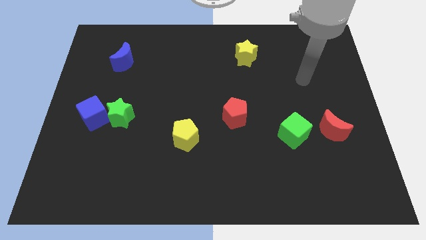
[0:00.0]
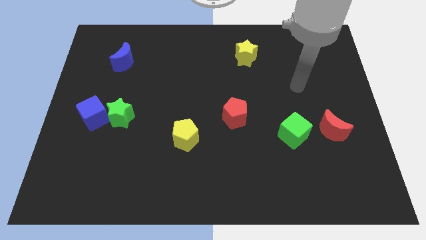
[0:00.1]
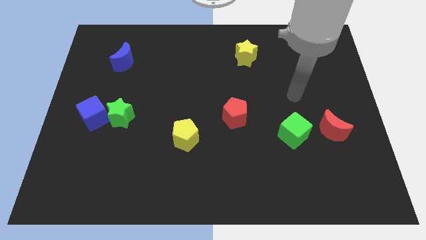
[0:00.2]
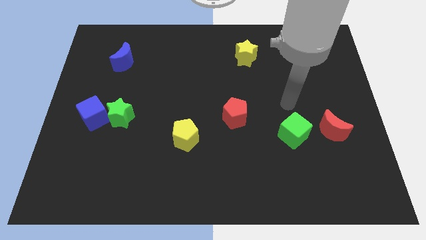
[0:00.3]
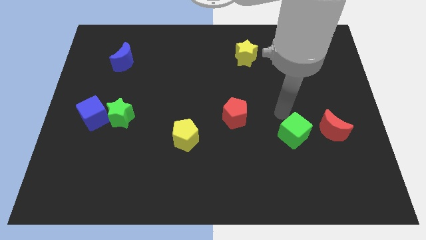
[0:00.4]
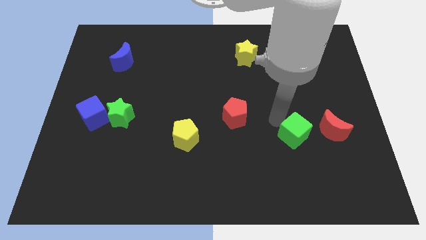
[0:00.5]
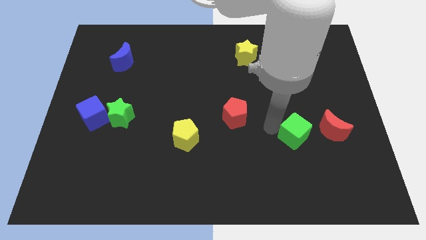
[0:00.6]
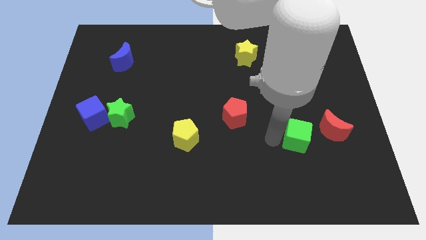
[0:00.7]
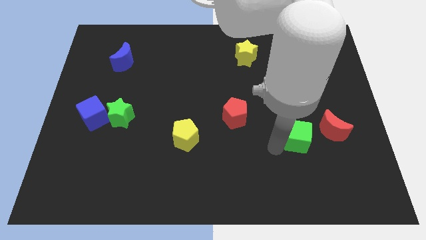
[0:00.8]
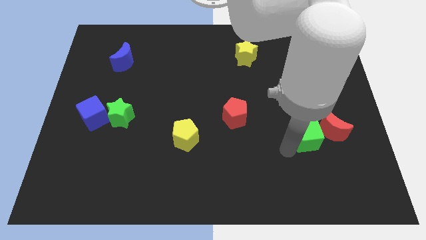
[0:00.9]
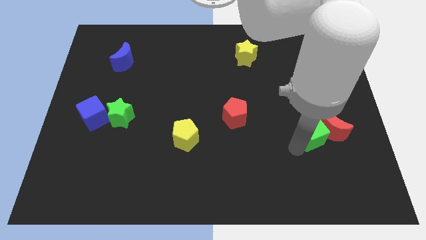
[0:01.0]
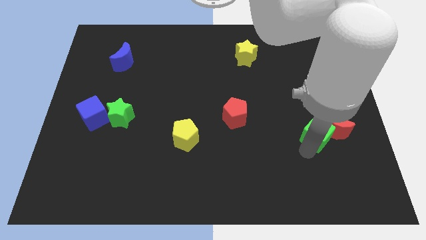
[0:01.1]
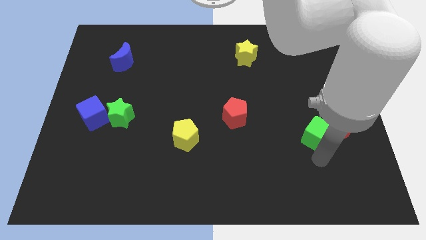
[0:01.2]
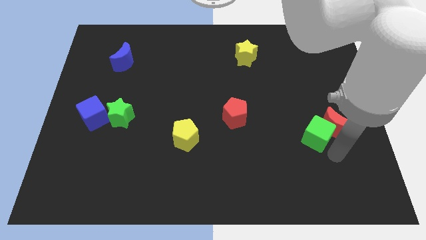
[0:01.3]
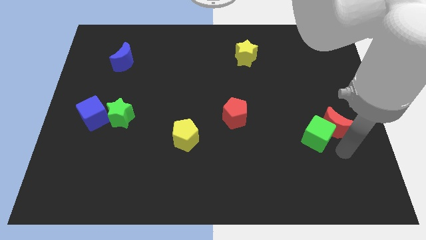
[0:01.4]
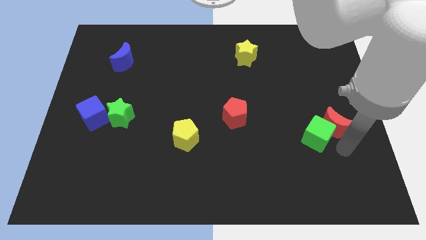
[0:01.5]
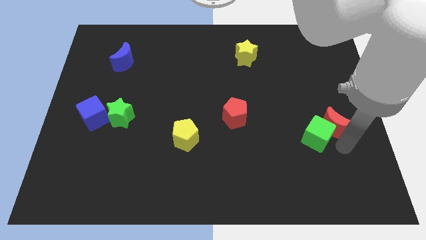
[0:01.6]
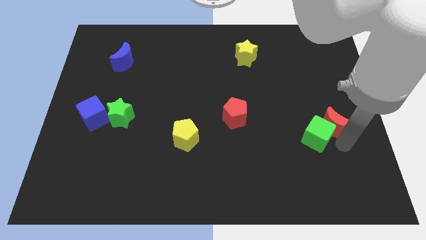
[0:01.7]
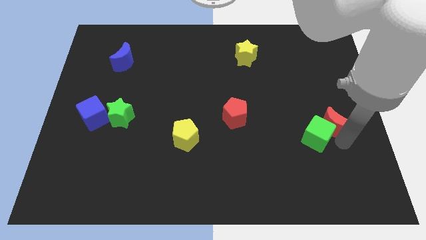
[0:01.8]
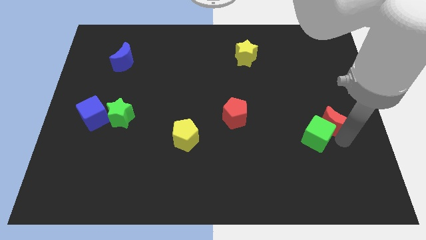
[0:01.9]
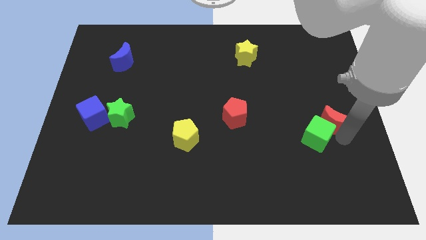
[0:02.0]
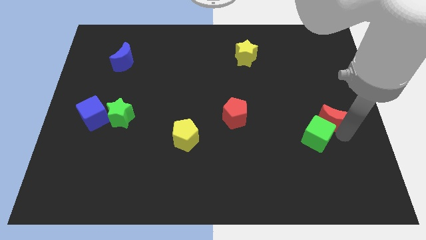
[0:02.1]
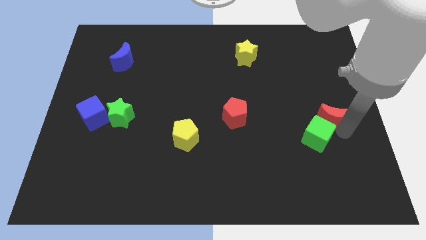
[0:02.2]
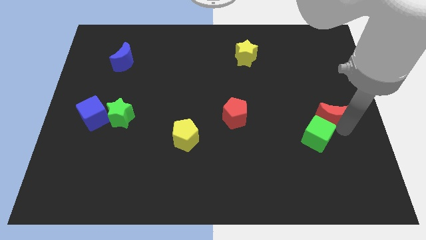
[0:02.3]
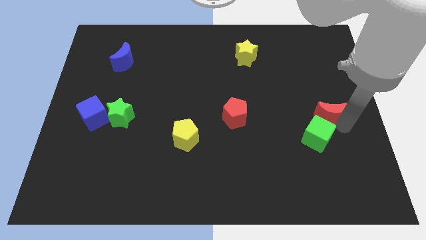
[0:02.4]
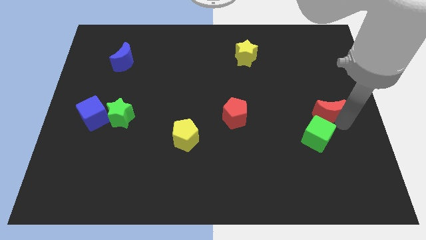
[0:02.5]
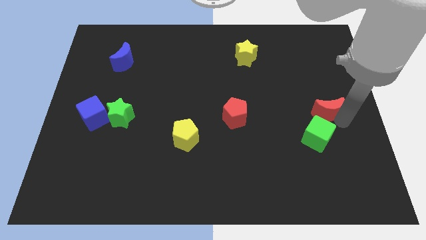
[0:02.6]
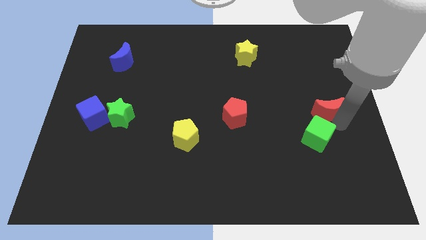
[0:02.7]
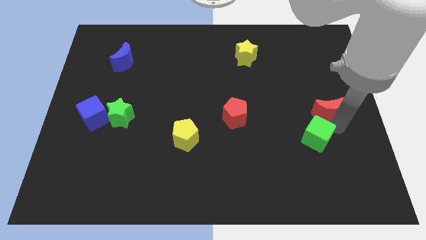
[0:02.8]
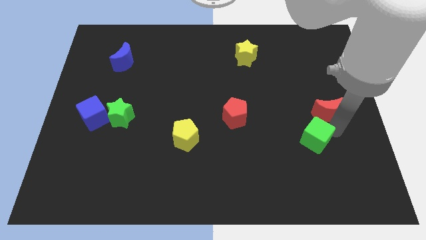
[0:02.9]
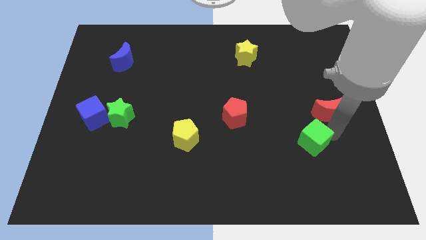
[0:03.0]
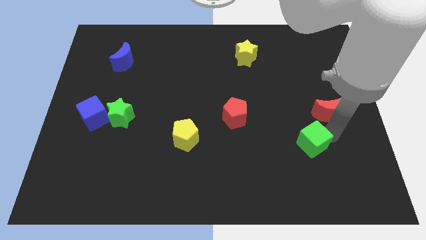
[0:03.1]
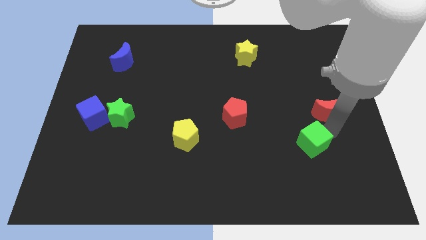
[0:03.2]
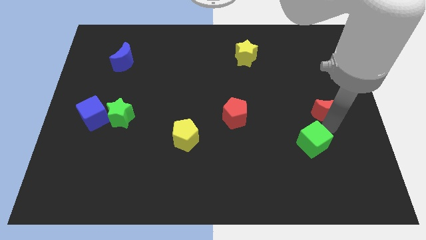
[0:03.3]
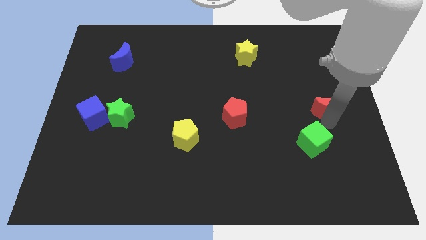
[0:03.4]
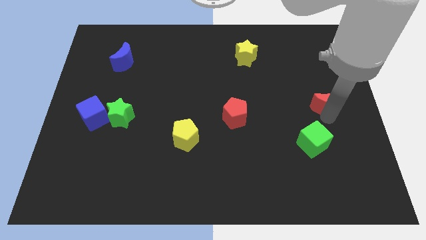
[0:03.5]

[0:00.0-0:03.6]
slightly slide the red moon upwards

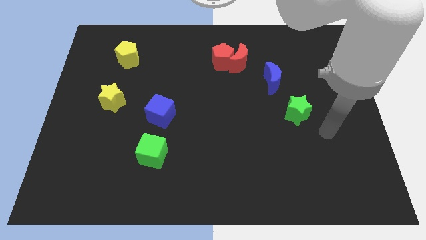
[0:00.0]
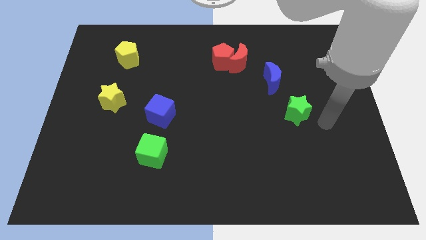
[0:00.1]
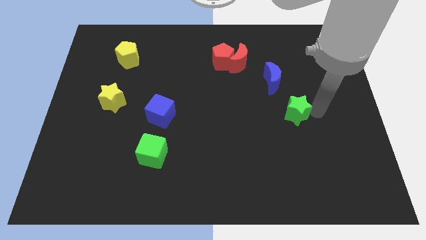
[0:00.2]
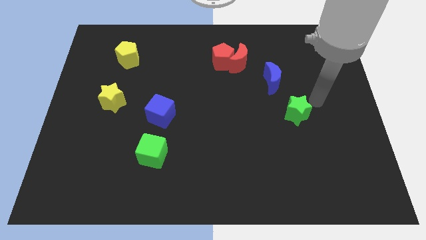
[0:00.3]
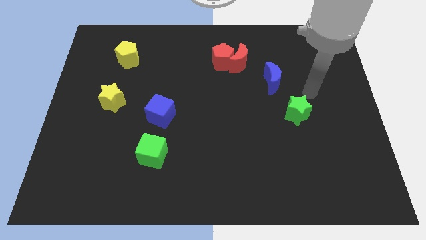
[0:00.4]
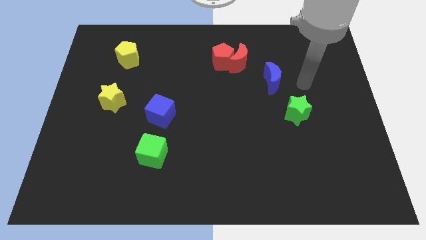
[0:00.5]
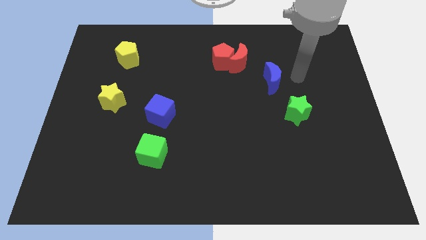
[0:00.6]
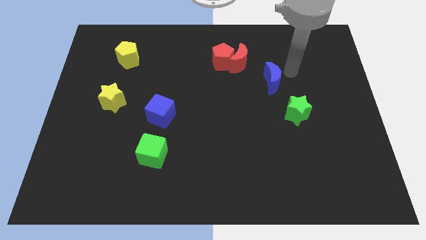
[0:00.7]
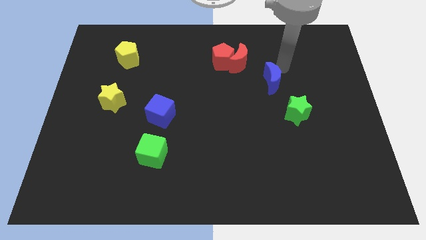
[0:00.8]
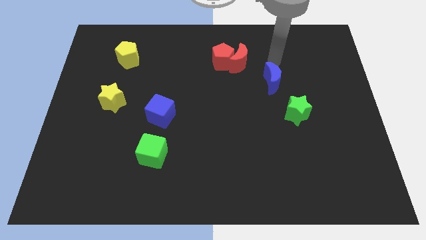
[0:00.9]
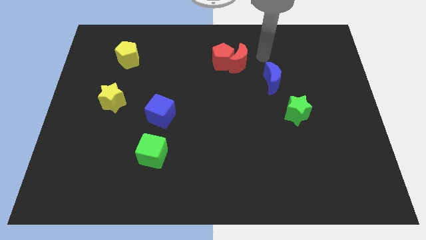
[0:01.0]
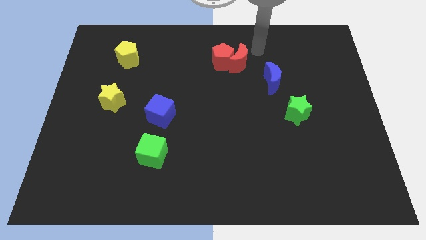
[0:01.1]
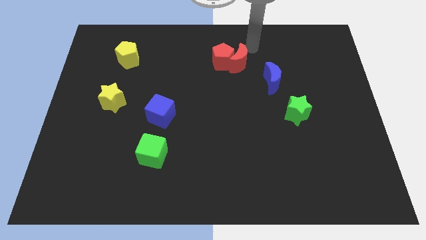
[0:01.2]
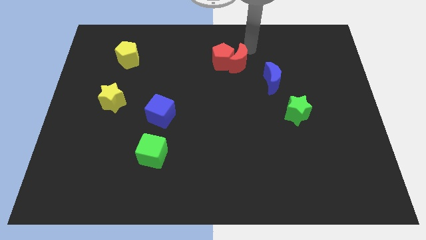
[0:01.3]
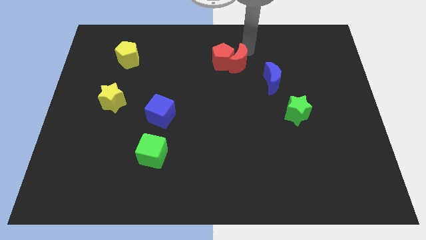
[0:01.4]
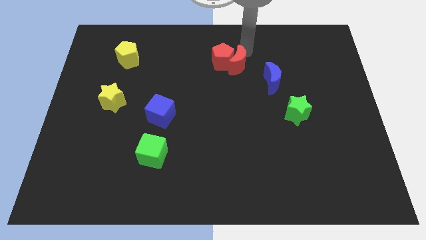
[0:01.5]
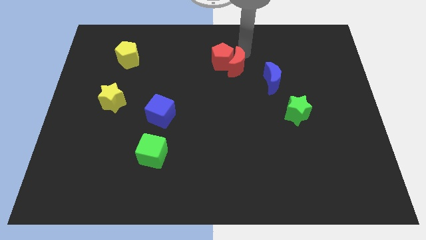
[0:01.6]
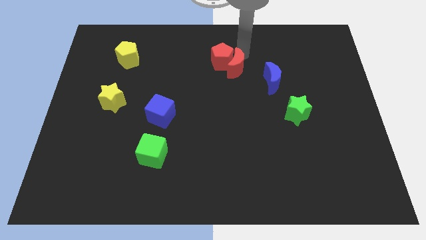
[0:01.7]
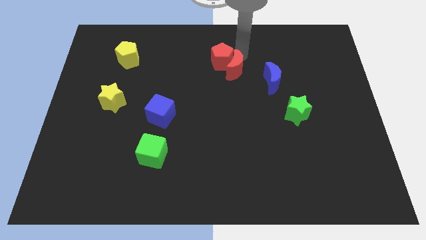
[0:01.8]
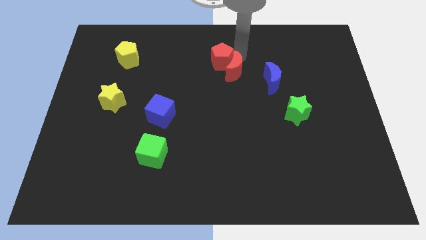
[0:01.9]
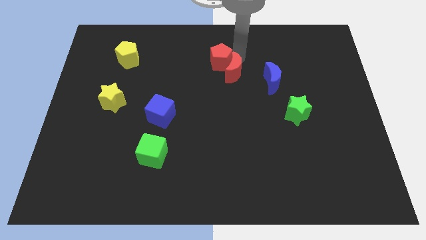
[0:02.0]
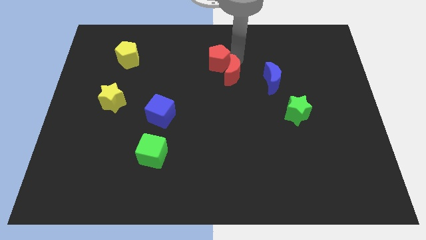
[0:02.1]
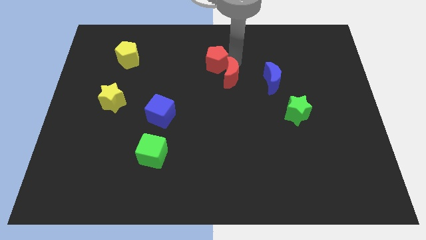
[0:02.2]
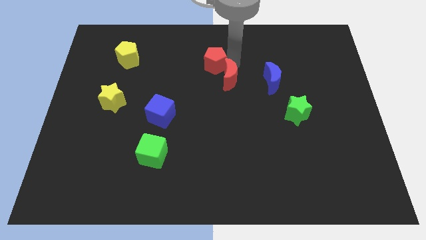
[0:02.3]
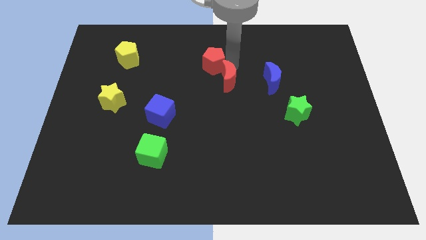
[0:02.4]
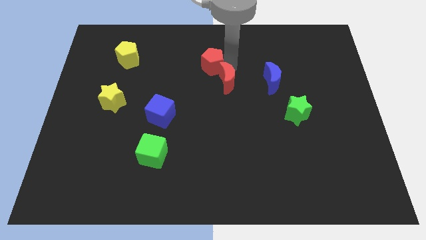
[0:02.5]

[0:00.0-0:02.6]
slightly move the red moon diagonally down and to the left

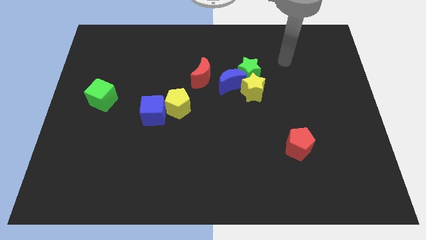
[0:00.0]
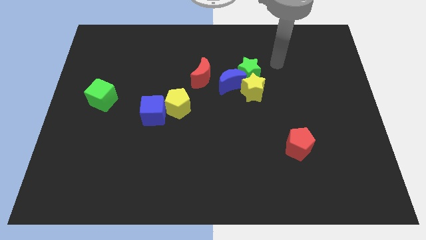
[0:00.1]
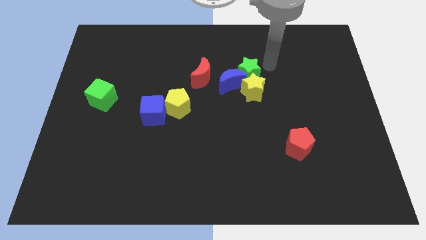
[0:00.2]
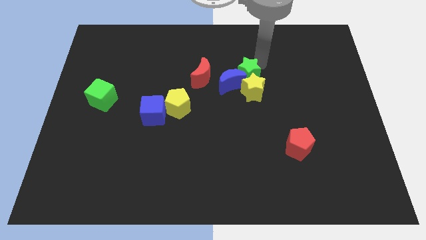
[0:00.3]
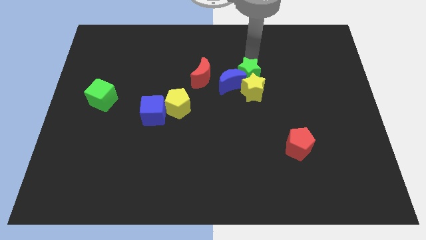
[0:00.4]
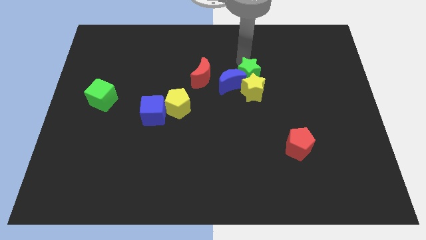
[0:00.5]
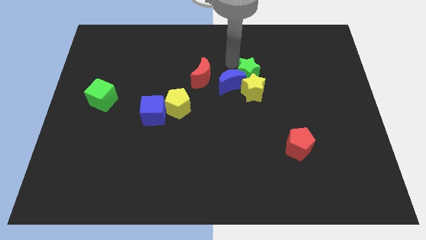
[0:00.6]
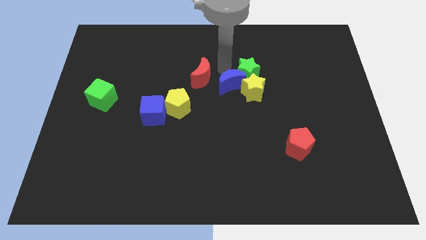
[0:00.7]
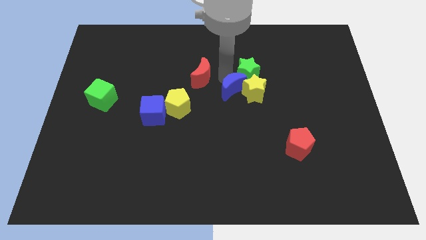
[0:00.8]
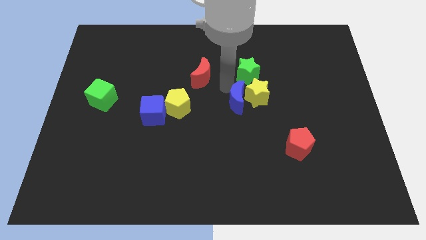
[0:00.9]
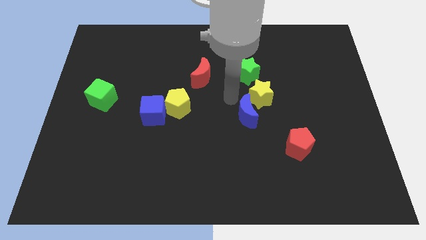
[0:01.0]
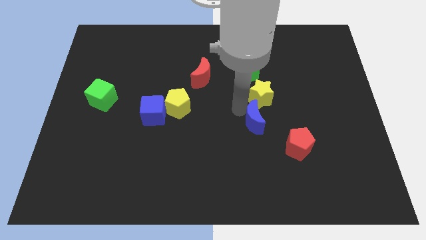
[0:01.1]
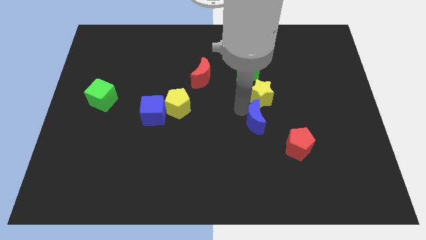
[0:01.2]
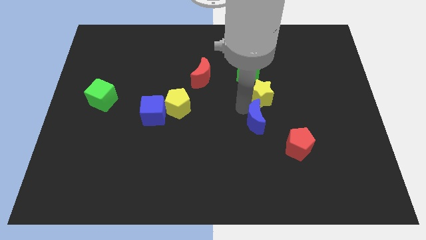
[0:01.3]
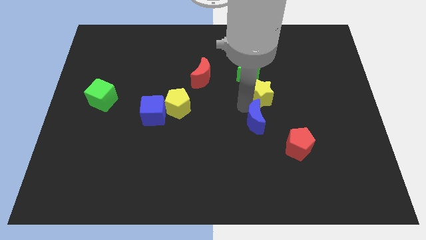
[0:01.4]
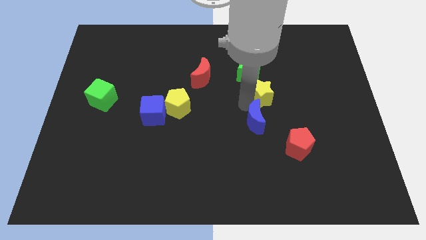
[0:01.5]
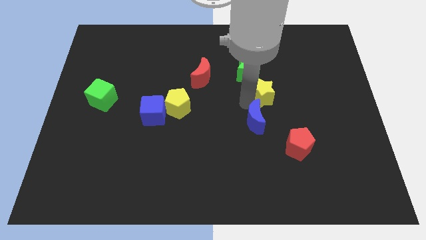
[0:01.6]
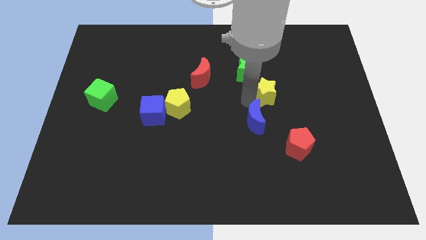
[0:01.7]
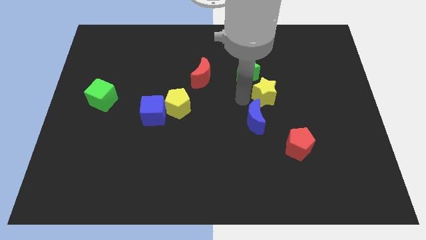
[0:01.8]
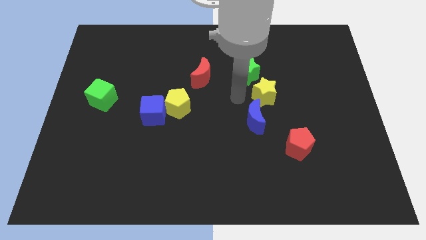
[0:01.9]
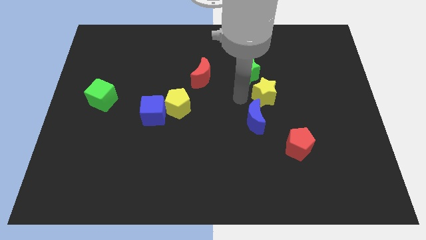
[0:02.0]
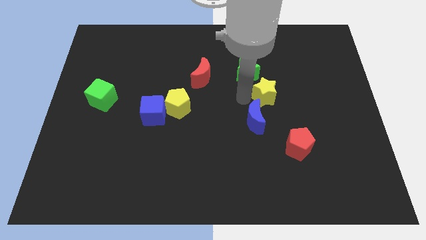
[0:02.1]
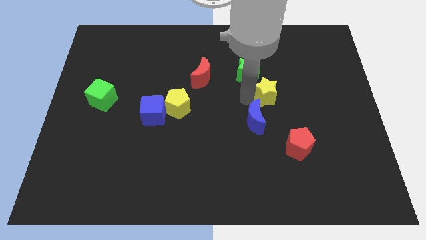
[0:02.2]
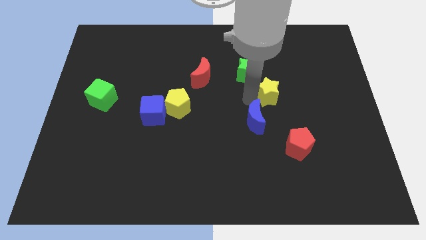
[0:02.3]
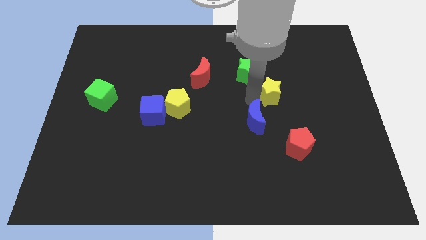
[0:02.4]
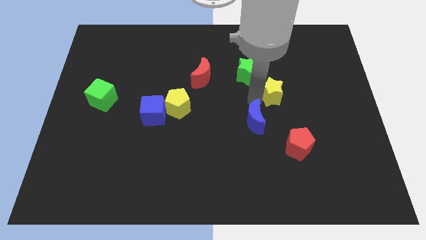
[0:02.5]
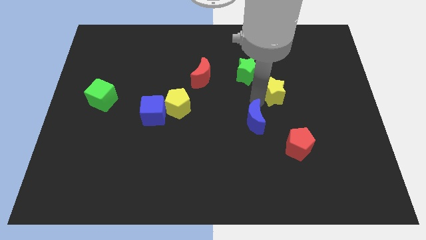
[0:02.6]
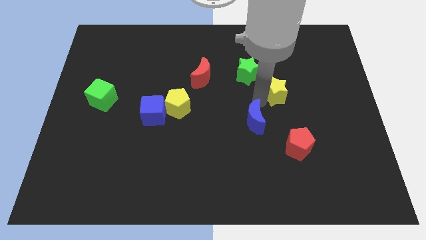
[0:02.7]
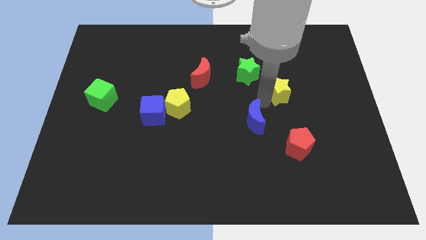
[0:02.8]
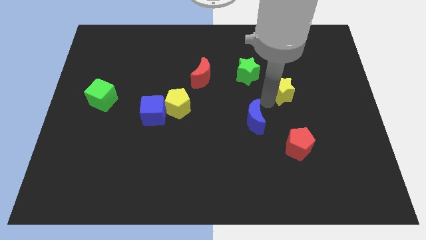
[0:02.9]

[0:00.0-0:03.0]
slightly push the yellow star to the right
